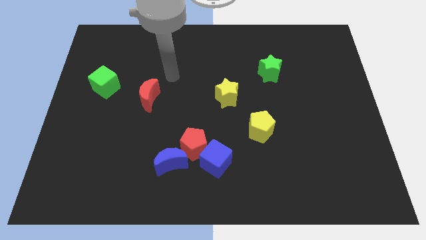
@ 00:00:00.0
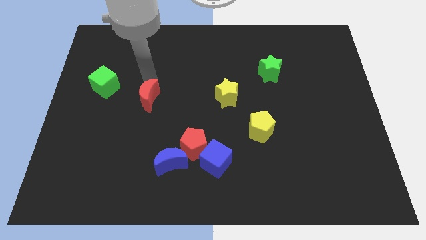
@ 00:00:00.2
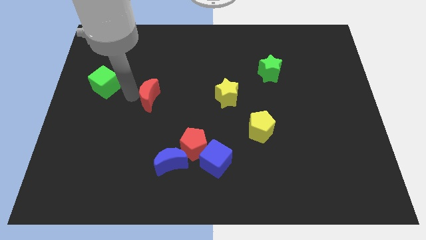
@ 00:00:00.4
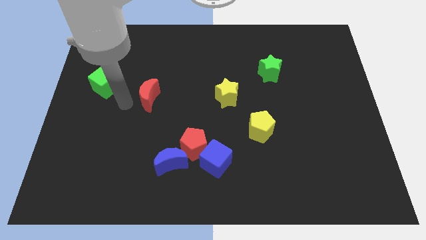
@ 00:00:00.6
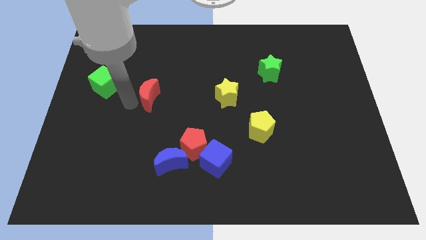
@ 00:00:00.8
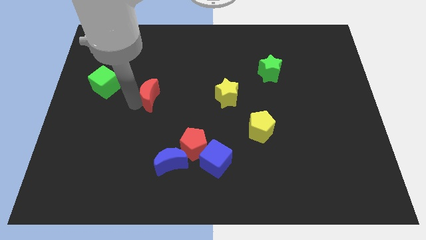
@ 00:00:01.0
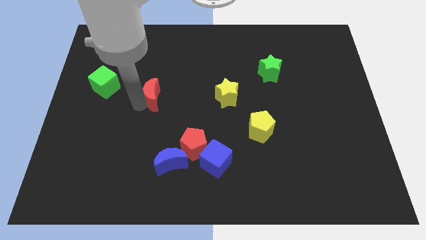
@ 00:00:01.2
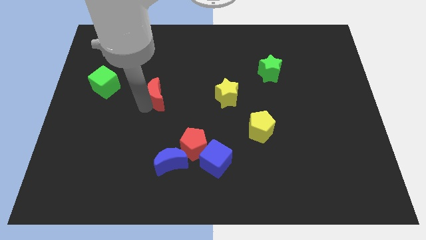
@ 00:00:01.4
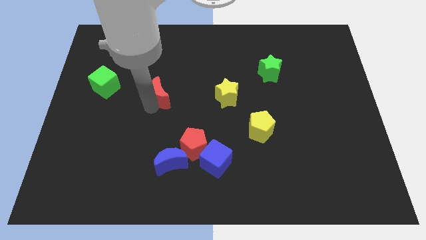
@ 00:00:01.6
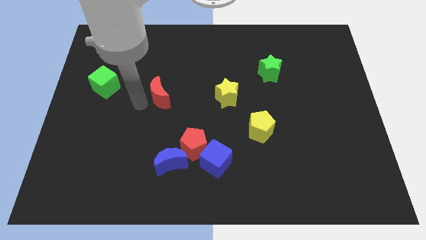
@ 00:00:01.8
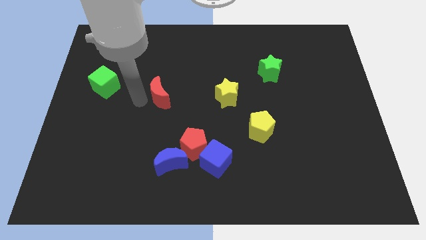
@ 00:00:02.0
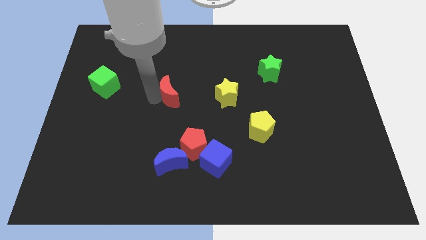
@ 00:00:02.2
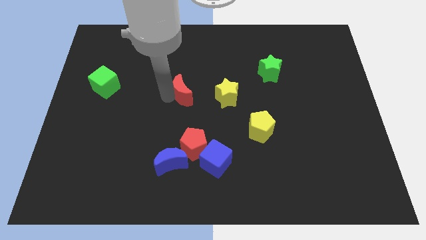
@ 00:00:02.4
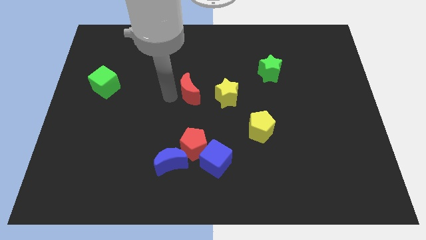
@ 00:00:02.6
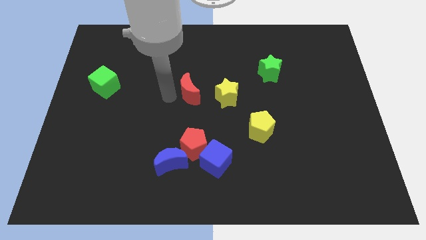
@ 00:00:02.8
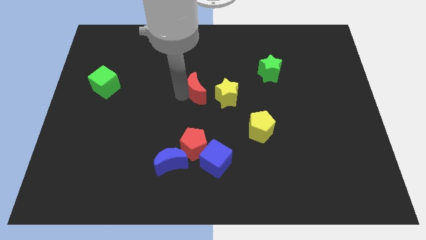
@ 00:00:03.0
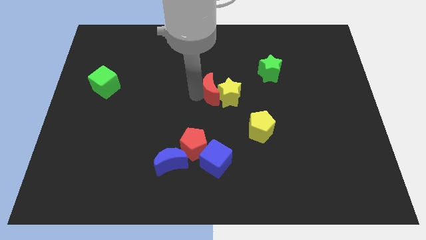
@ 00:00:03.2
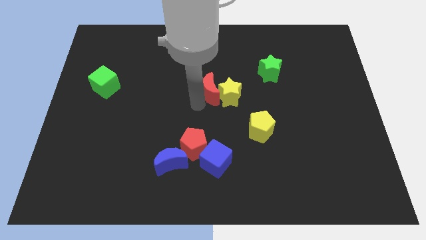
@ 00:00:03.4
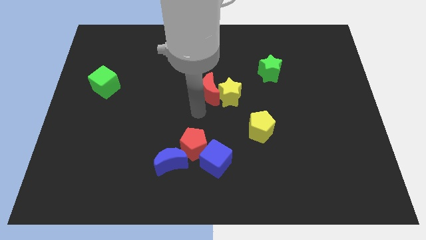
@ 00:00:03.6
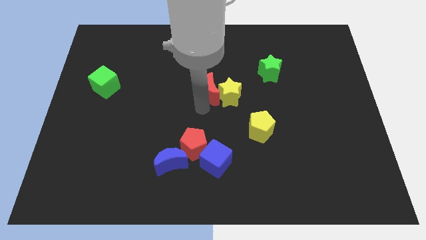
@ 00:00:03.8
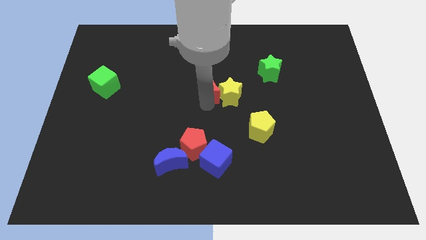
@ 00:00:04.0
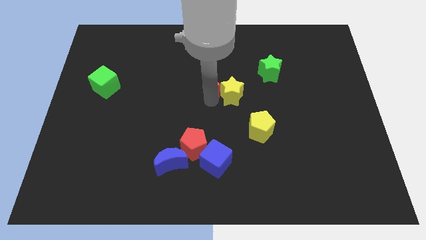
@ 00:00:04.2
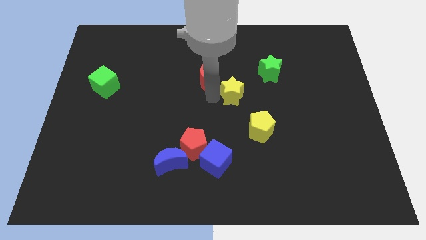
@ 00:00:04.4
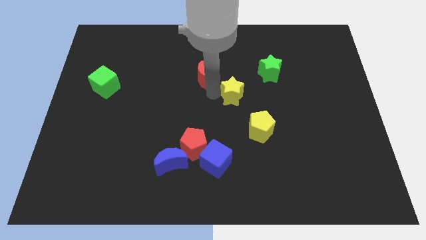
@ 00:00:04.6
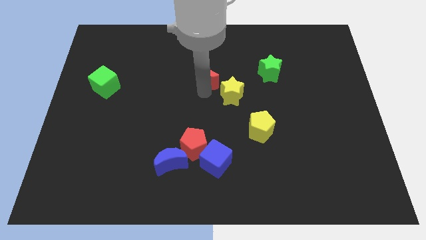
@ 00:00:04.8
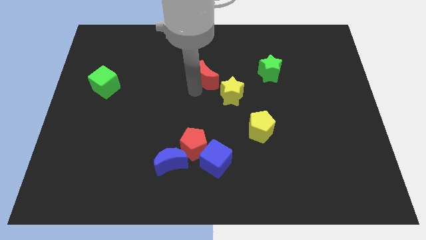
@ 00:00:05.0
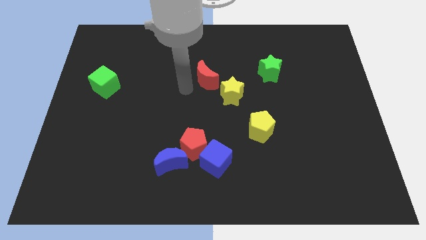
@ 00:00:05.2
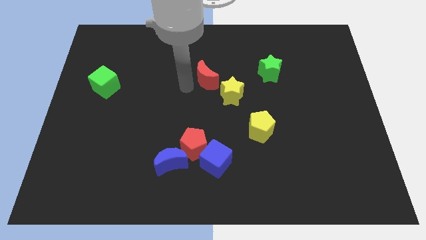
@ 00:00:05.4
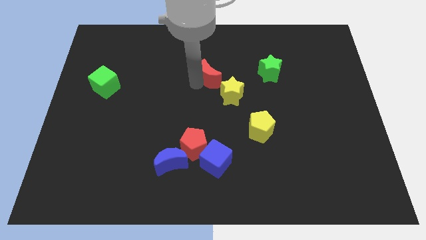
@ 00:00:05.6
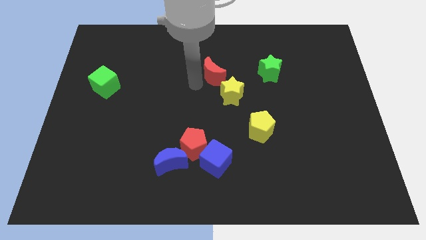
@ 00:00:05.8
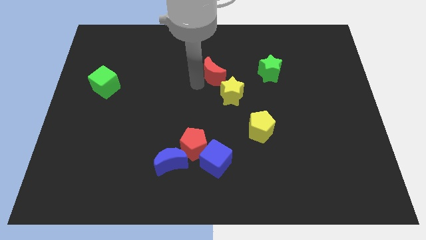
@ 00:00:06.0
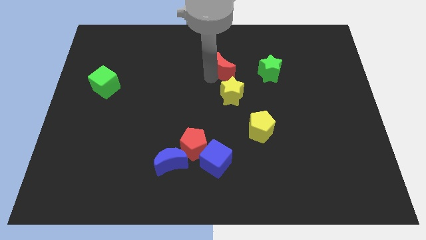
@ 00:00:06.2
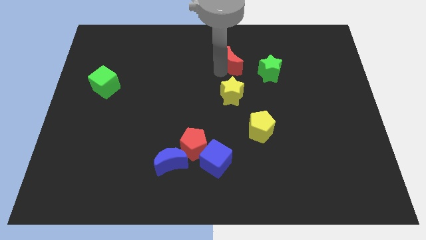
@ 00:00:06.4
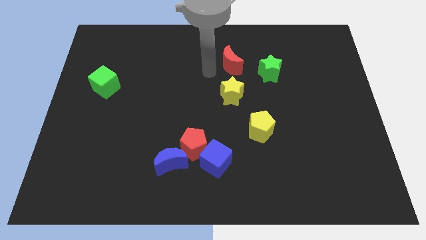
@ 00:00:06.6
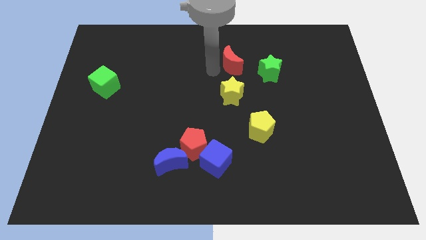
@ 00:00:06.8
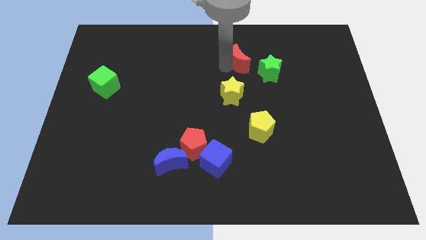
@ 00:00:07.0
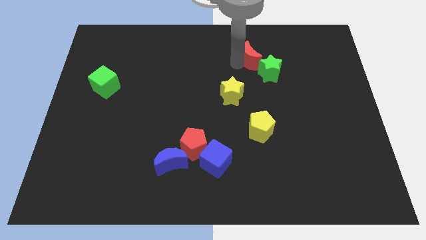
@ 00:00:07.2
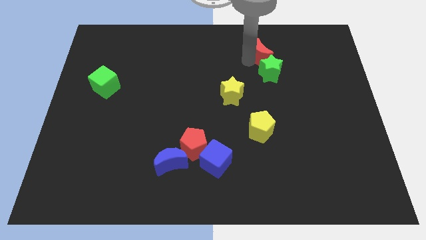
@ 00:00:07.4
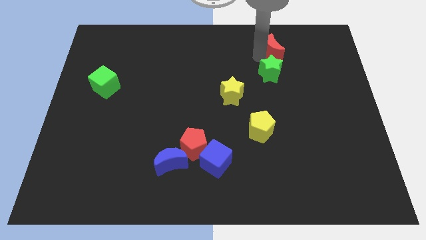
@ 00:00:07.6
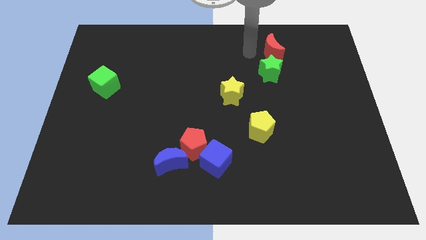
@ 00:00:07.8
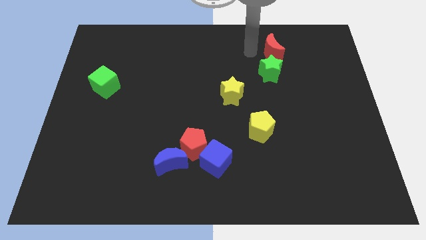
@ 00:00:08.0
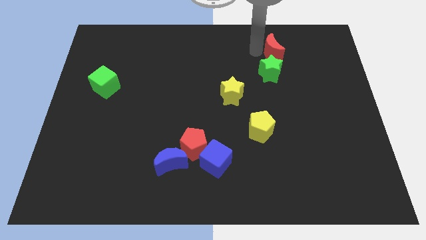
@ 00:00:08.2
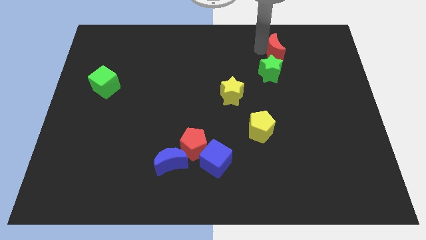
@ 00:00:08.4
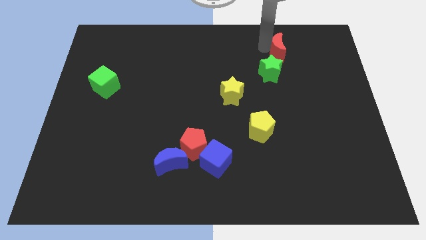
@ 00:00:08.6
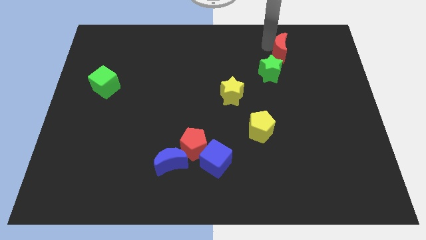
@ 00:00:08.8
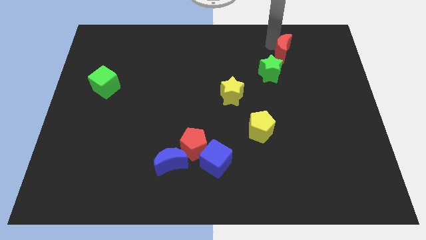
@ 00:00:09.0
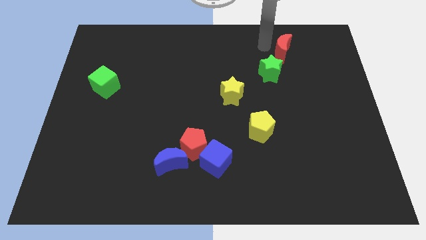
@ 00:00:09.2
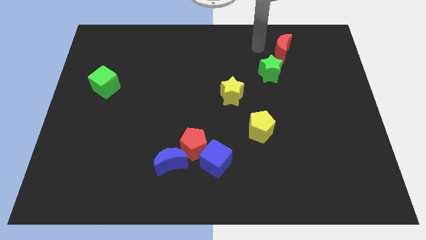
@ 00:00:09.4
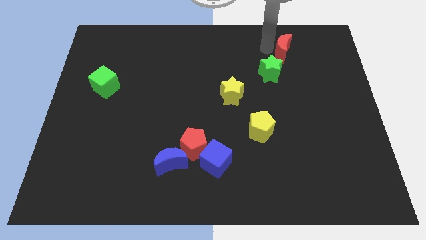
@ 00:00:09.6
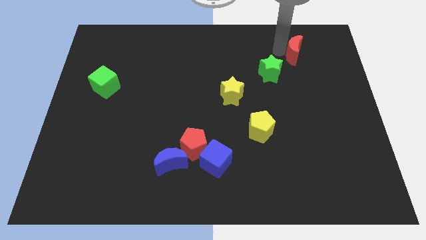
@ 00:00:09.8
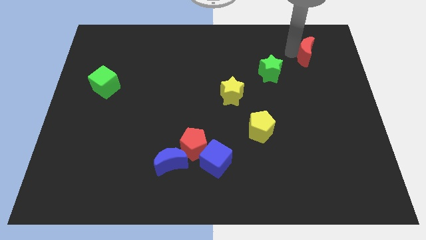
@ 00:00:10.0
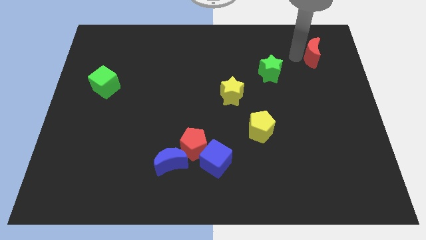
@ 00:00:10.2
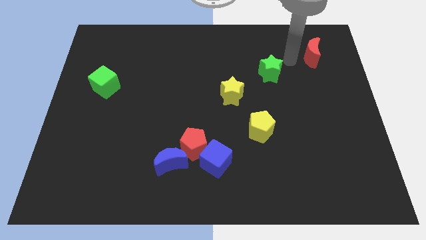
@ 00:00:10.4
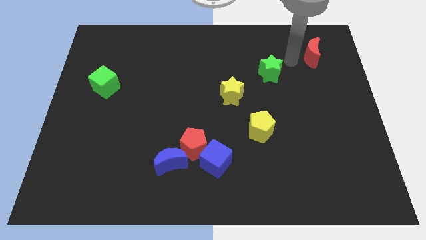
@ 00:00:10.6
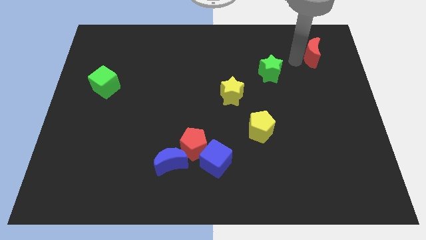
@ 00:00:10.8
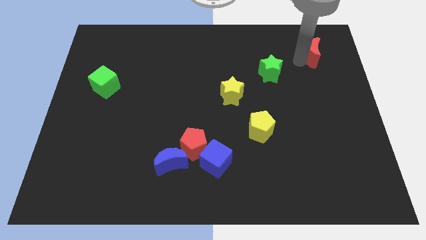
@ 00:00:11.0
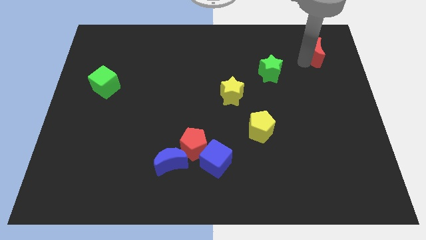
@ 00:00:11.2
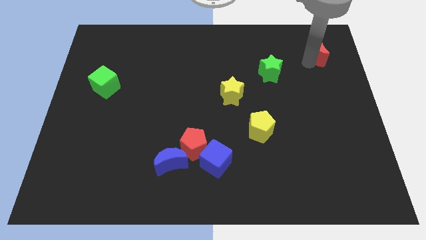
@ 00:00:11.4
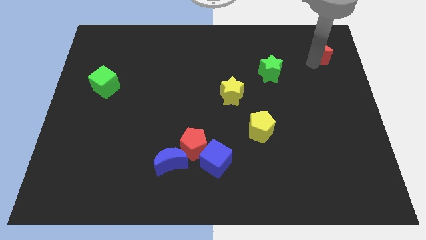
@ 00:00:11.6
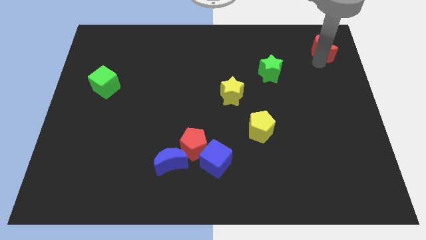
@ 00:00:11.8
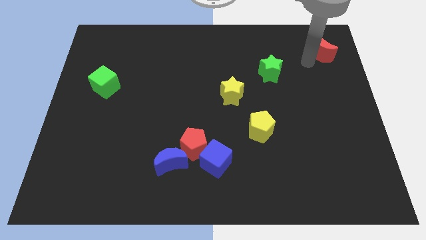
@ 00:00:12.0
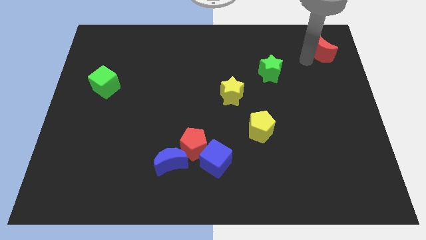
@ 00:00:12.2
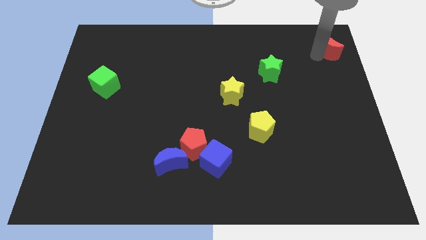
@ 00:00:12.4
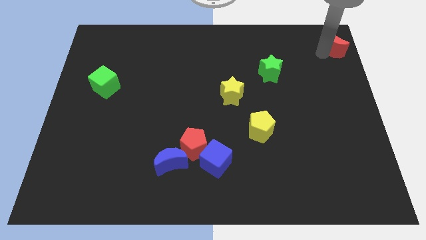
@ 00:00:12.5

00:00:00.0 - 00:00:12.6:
move the red moon to the upper right corner
